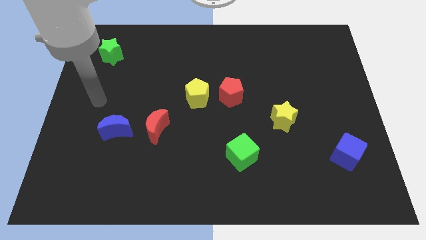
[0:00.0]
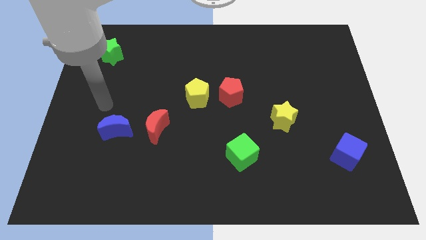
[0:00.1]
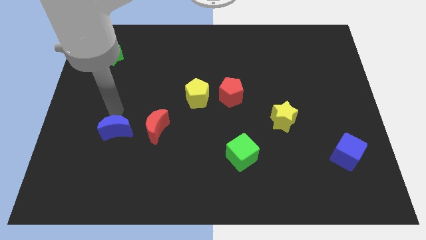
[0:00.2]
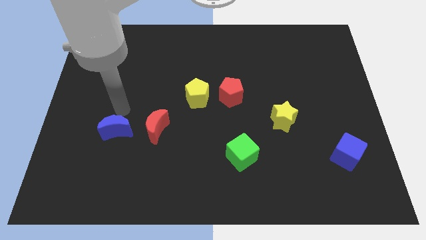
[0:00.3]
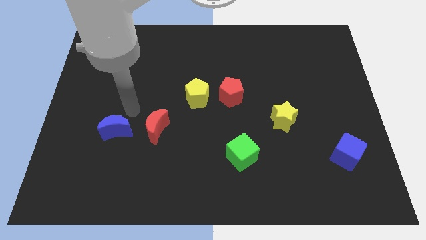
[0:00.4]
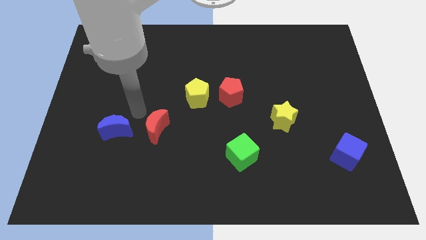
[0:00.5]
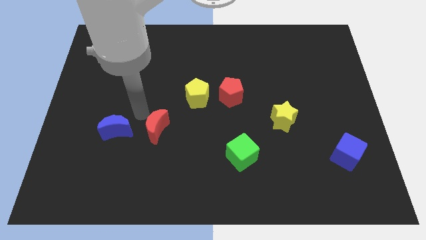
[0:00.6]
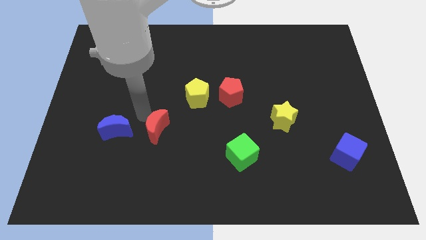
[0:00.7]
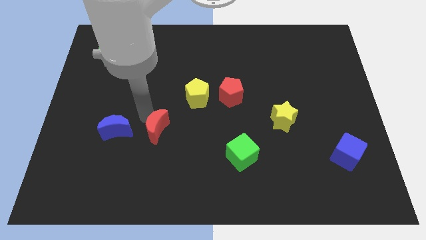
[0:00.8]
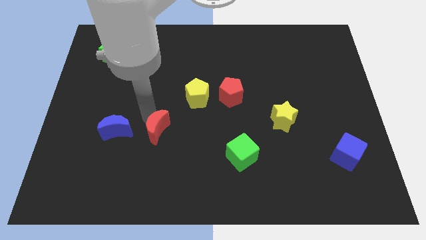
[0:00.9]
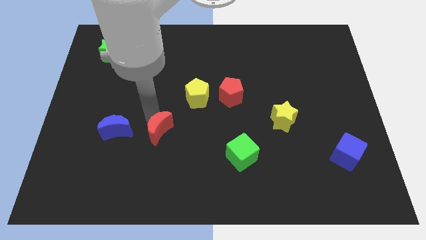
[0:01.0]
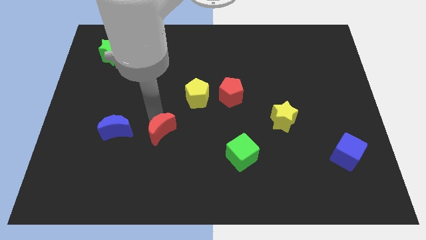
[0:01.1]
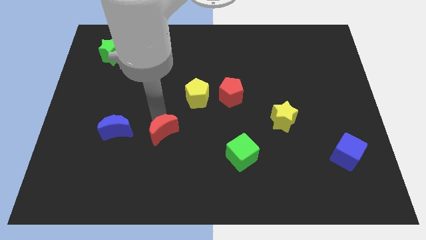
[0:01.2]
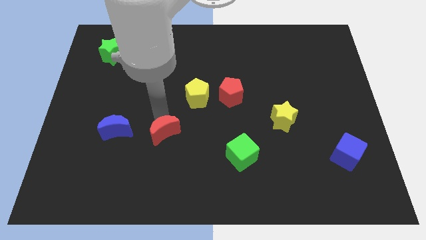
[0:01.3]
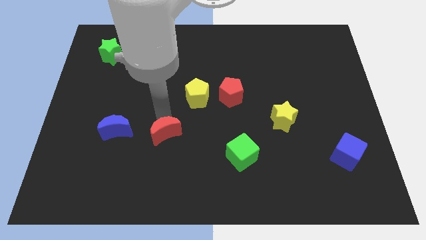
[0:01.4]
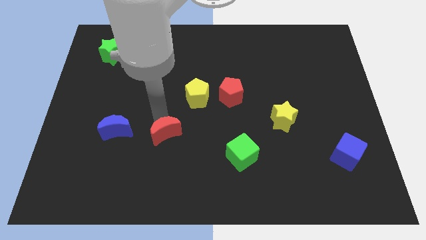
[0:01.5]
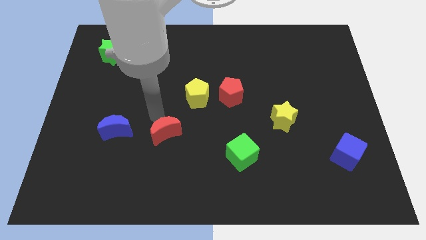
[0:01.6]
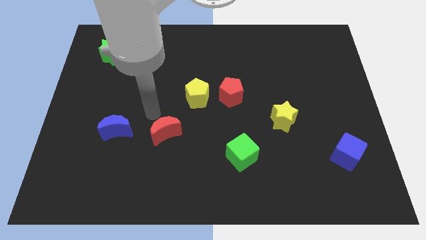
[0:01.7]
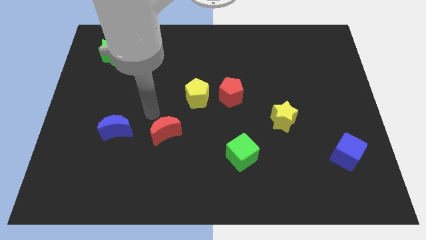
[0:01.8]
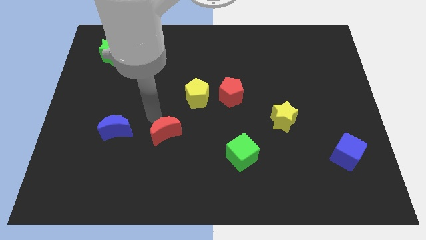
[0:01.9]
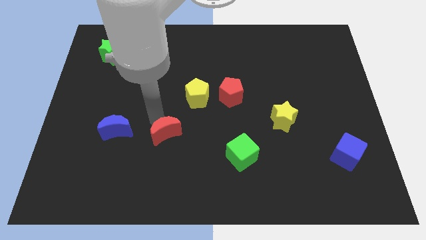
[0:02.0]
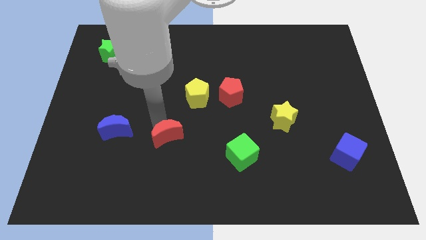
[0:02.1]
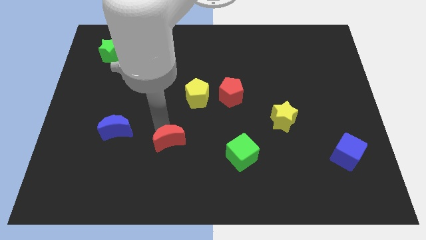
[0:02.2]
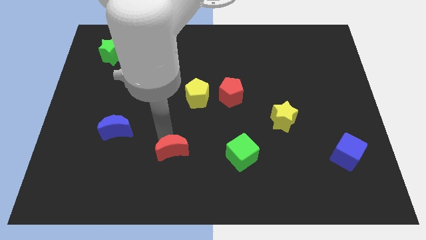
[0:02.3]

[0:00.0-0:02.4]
slide the red moon somewhat down and to the right diagonally

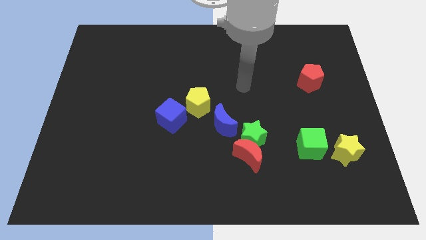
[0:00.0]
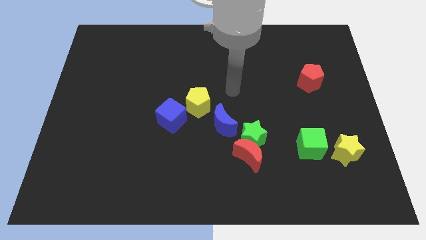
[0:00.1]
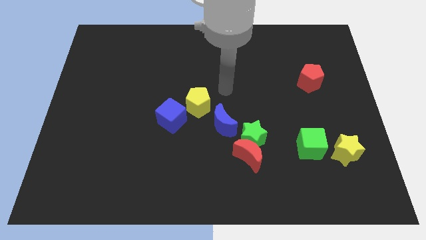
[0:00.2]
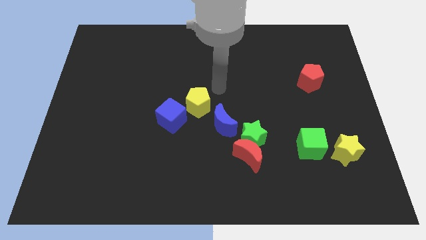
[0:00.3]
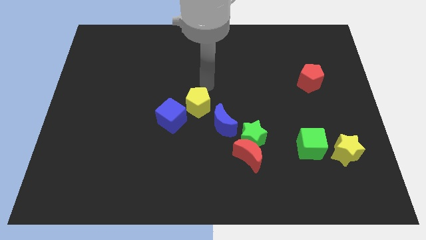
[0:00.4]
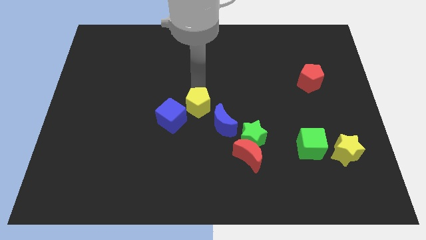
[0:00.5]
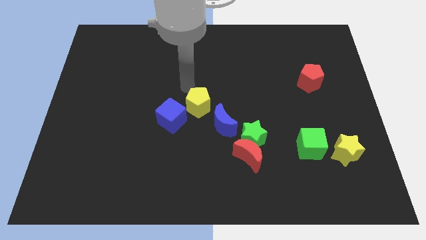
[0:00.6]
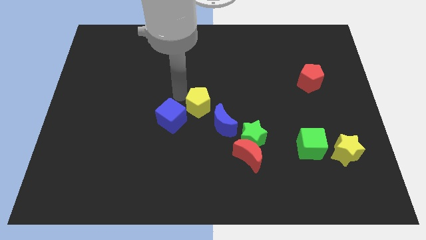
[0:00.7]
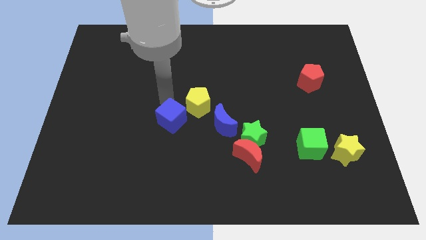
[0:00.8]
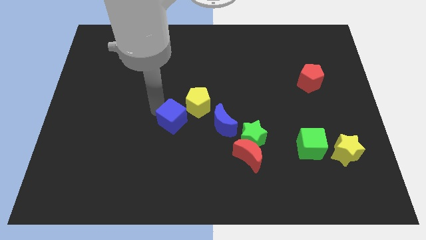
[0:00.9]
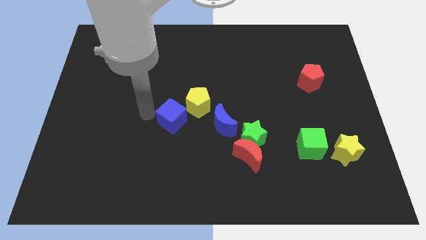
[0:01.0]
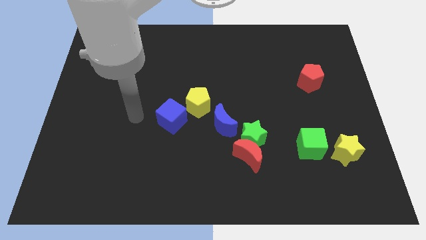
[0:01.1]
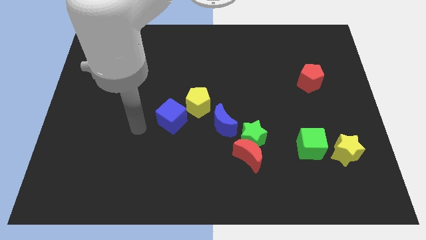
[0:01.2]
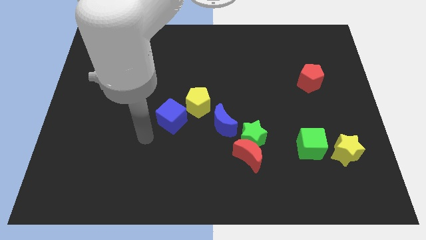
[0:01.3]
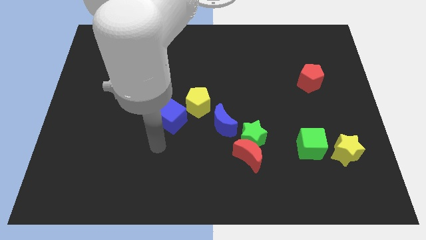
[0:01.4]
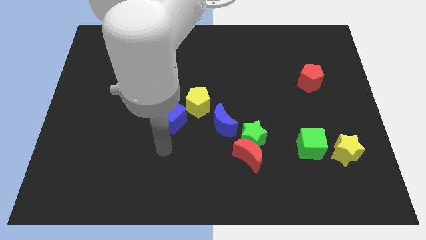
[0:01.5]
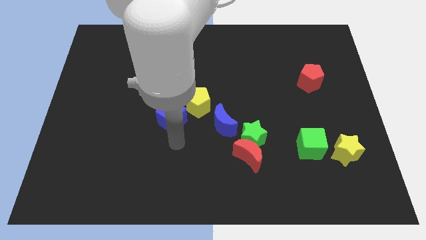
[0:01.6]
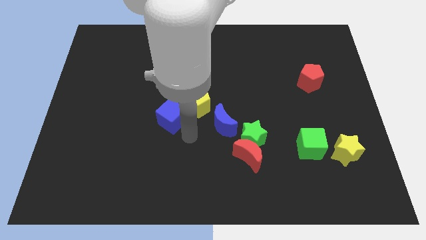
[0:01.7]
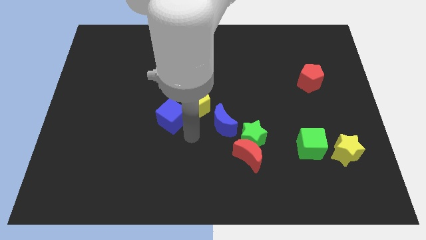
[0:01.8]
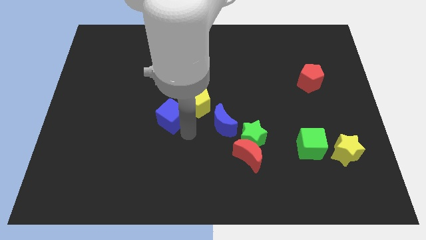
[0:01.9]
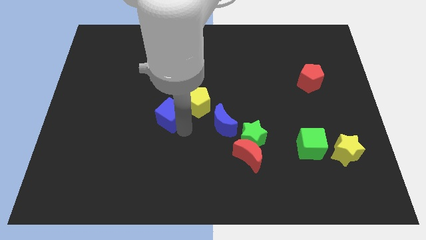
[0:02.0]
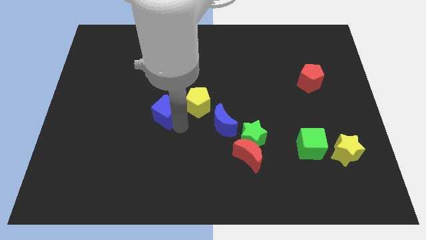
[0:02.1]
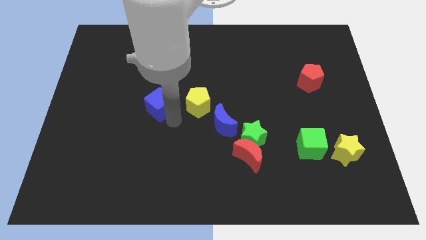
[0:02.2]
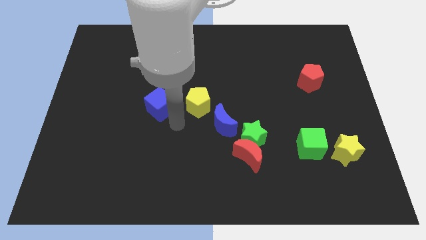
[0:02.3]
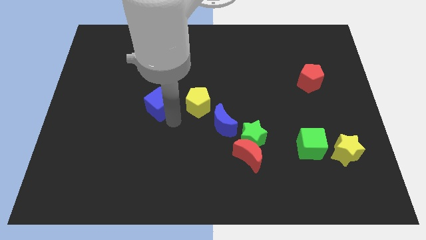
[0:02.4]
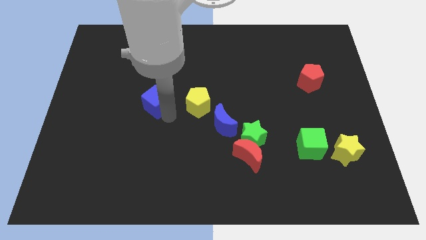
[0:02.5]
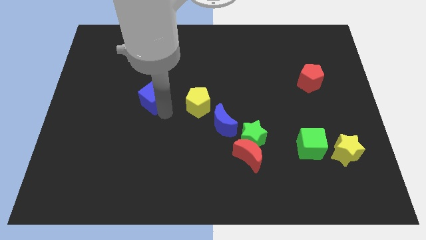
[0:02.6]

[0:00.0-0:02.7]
push the blue cube upwards and to the left a little bit

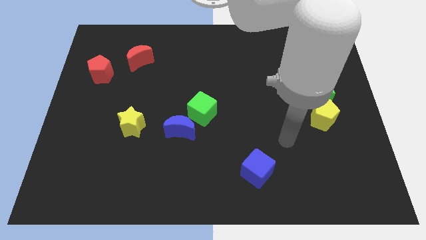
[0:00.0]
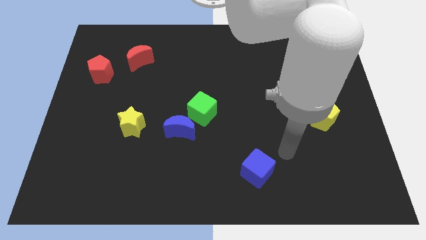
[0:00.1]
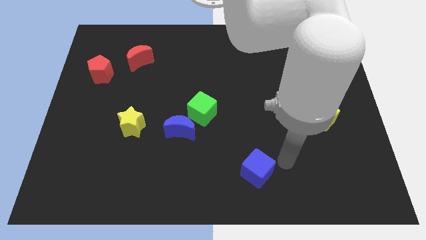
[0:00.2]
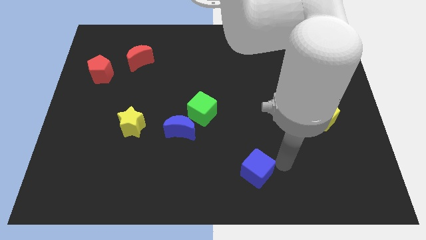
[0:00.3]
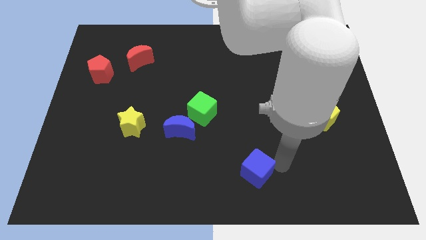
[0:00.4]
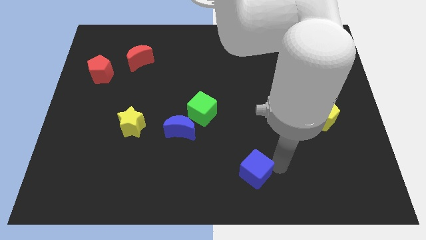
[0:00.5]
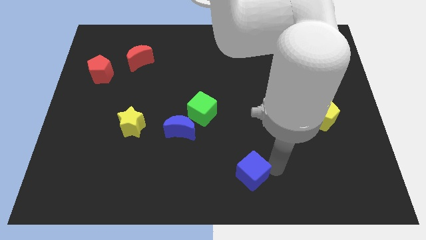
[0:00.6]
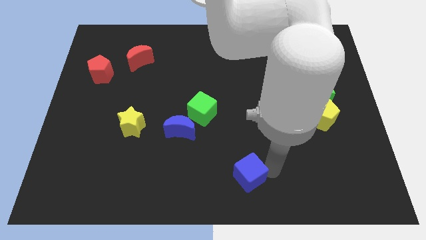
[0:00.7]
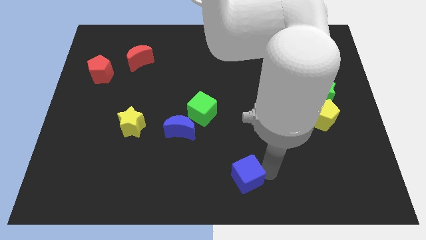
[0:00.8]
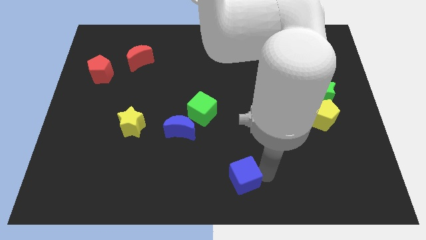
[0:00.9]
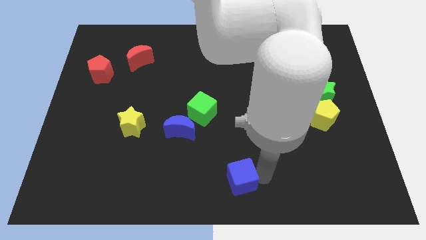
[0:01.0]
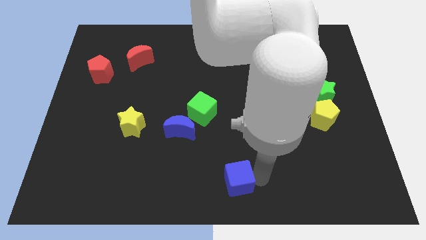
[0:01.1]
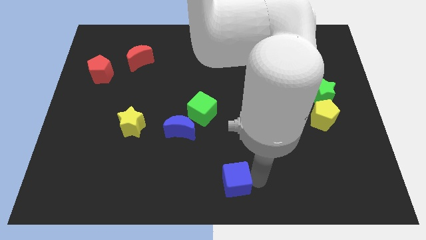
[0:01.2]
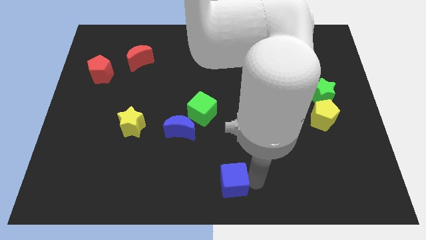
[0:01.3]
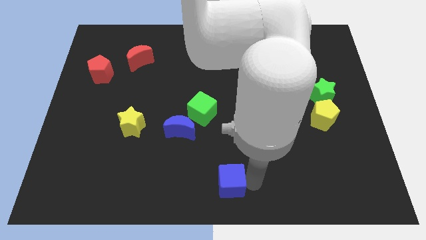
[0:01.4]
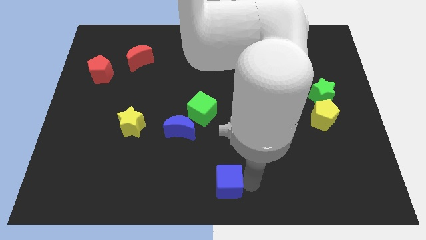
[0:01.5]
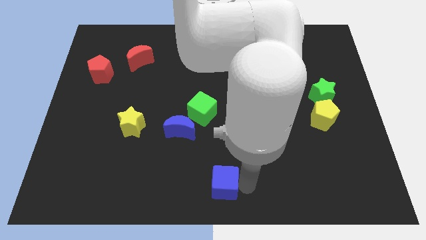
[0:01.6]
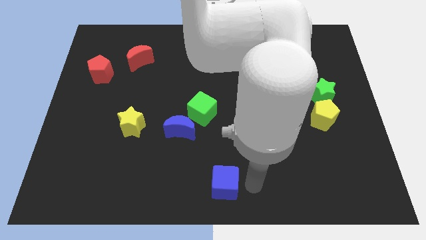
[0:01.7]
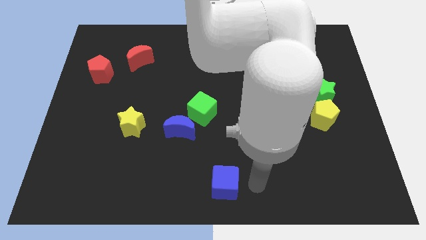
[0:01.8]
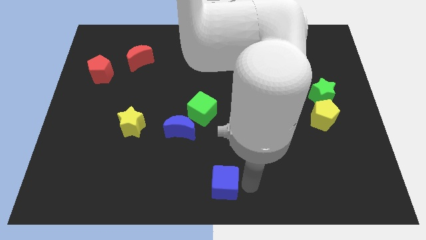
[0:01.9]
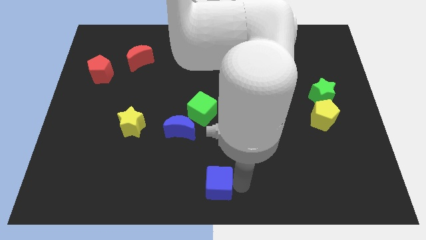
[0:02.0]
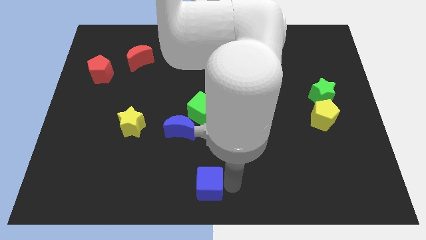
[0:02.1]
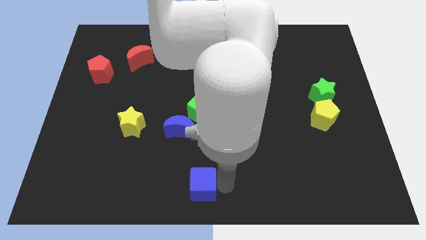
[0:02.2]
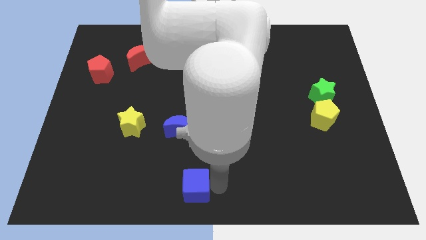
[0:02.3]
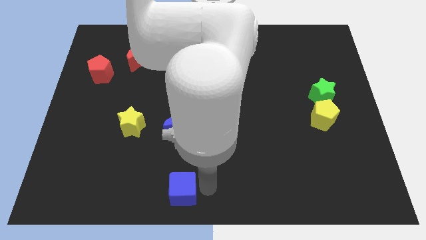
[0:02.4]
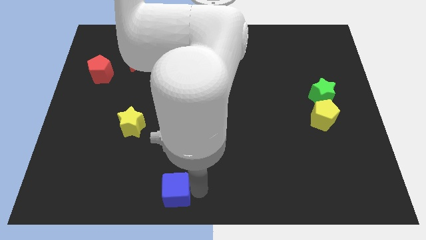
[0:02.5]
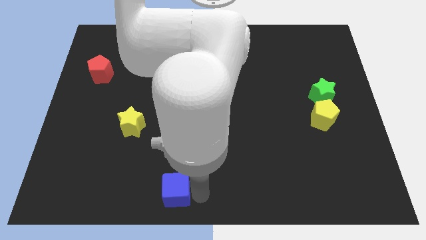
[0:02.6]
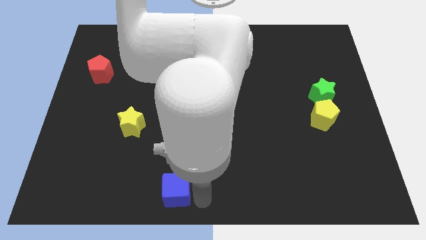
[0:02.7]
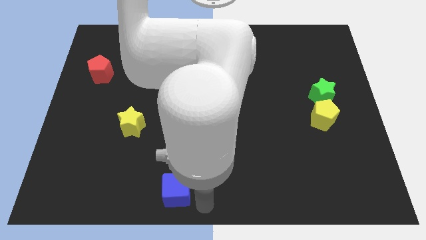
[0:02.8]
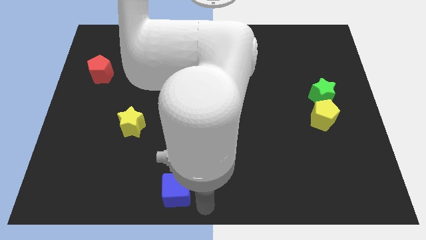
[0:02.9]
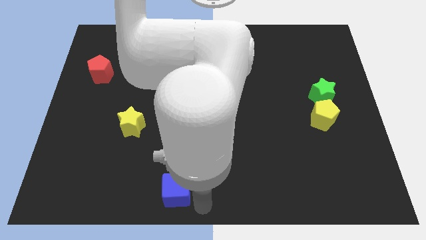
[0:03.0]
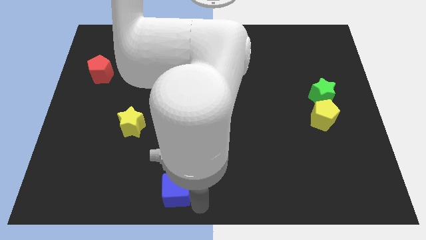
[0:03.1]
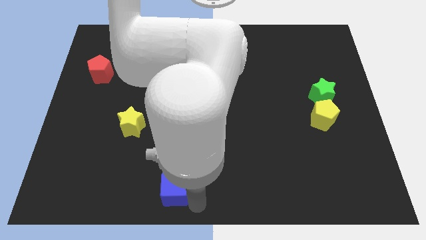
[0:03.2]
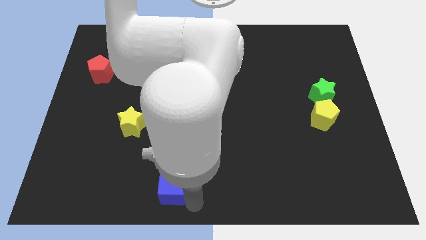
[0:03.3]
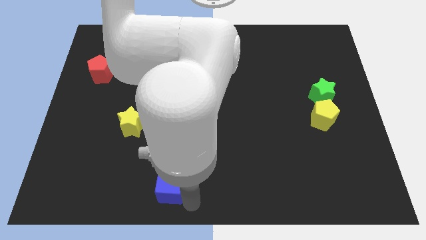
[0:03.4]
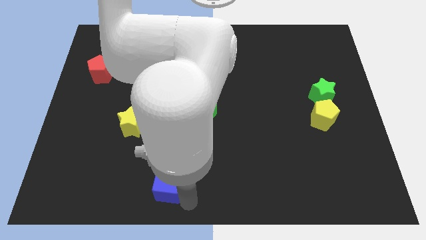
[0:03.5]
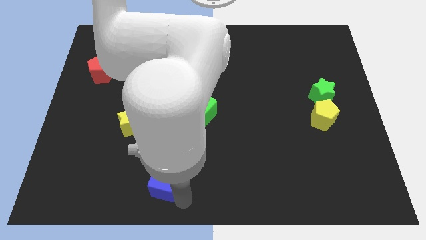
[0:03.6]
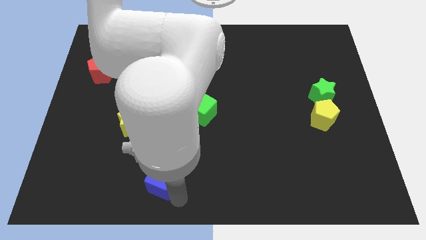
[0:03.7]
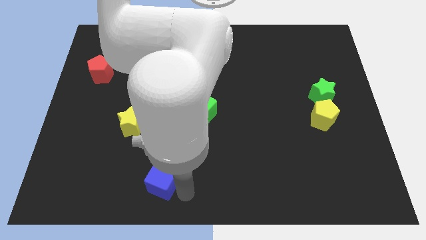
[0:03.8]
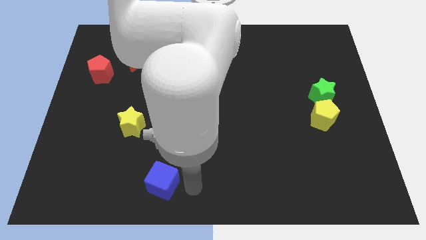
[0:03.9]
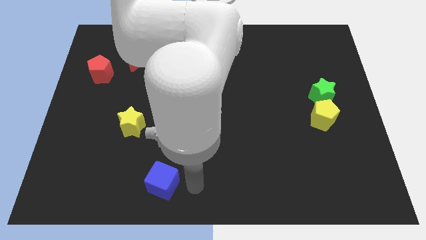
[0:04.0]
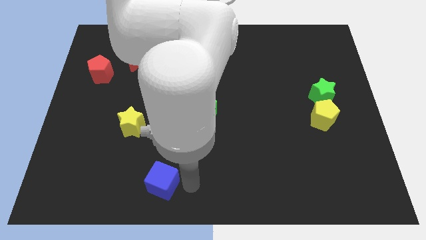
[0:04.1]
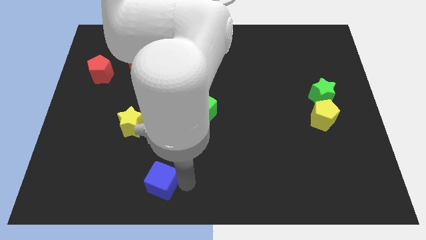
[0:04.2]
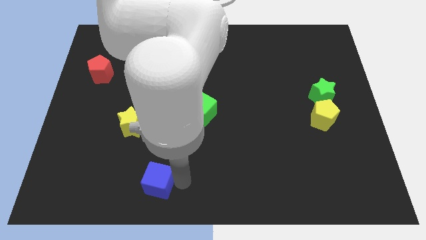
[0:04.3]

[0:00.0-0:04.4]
push the blue cube left
